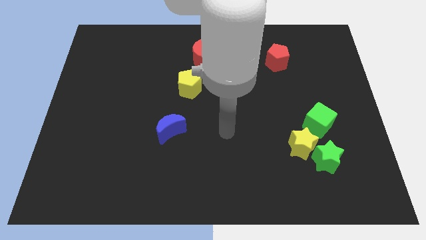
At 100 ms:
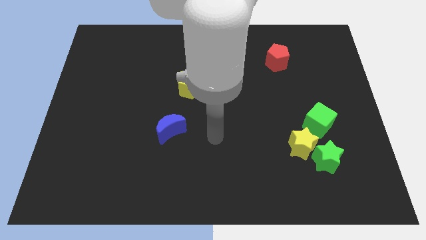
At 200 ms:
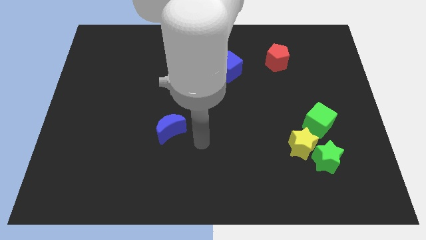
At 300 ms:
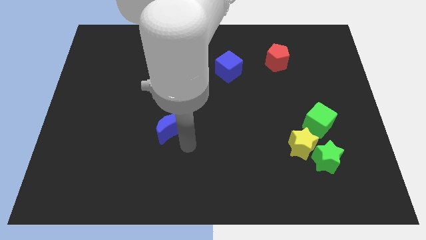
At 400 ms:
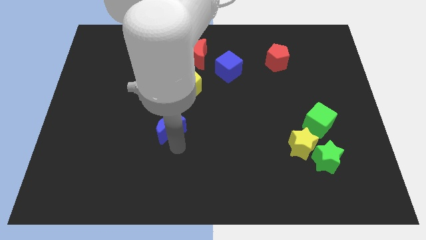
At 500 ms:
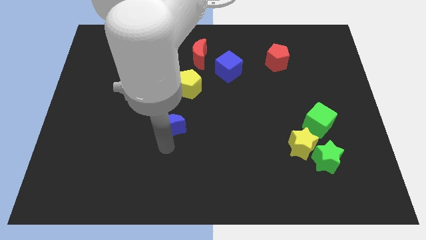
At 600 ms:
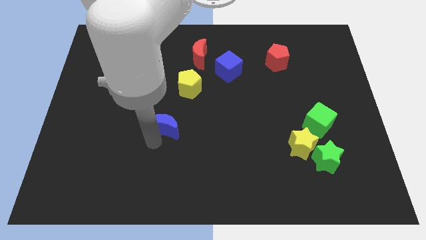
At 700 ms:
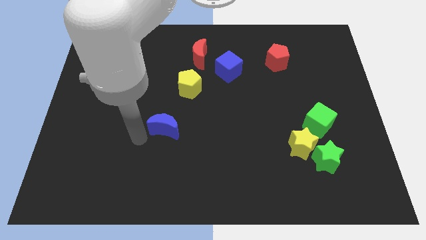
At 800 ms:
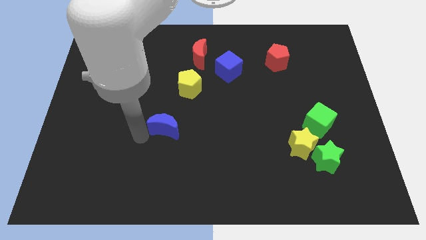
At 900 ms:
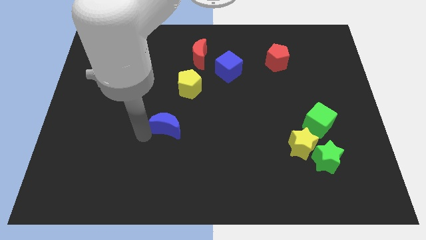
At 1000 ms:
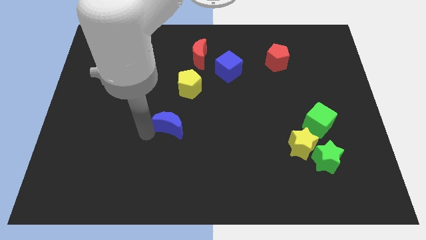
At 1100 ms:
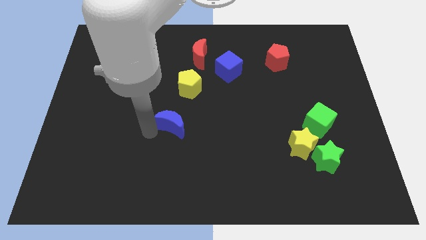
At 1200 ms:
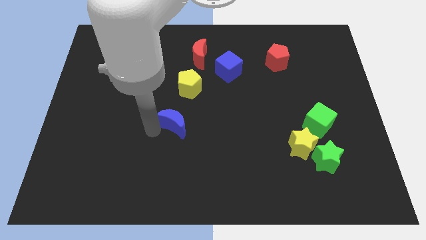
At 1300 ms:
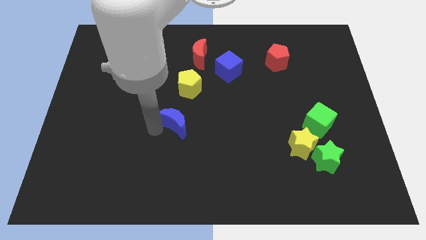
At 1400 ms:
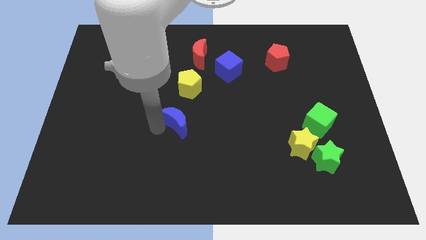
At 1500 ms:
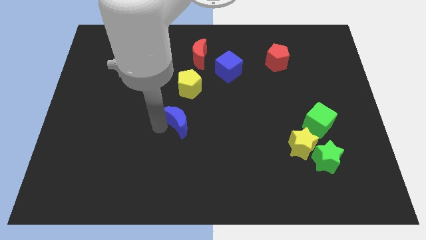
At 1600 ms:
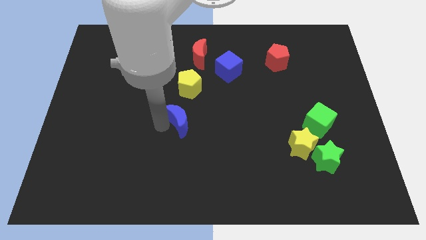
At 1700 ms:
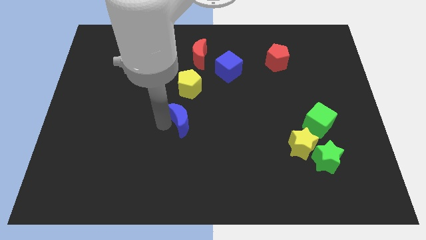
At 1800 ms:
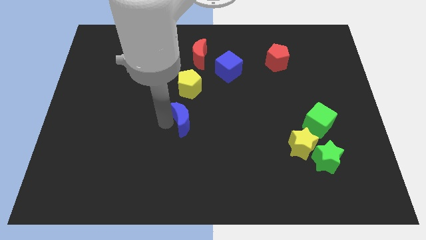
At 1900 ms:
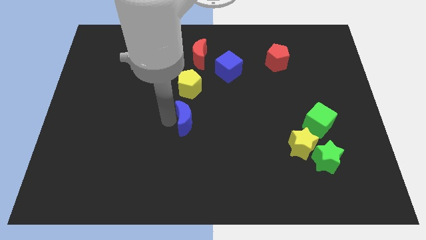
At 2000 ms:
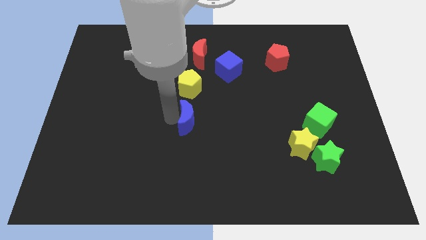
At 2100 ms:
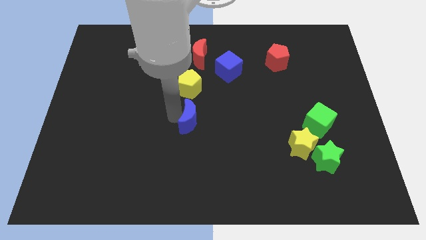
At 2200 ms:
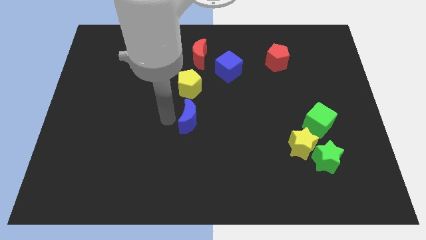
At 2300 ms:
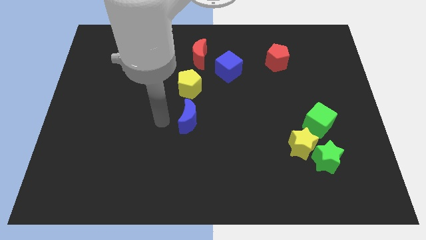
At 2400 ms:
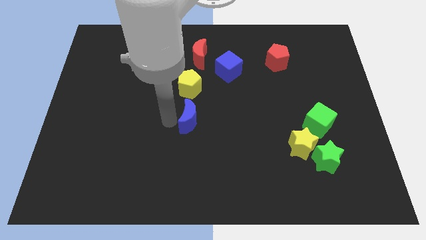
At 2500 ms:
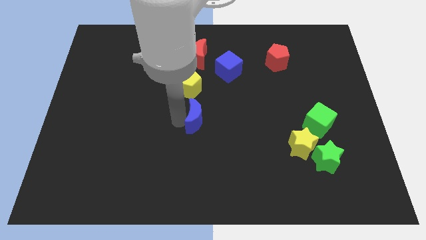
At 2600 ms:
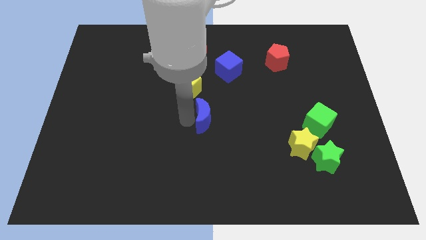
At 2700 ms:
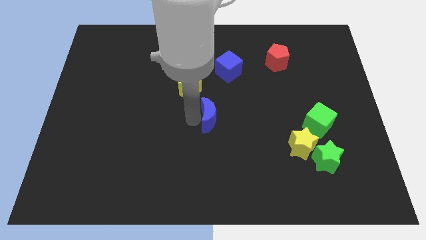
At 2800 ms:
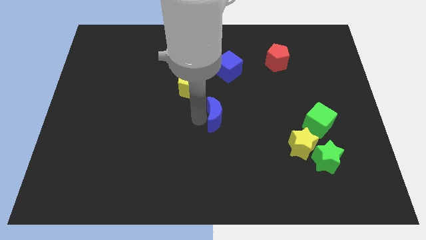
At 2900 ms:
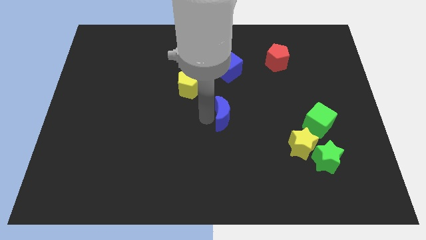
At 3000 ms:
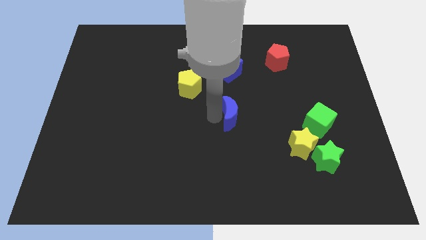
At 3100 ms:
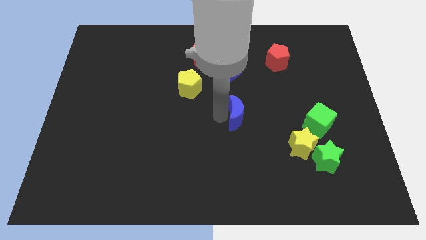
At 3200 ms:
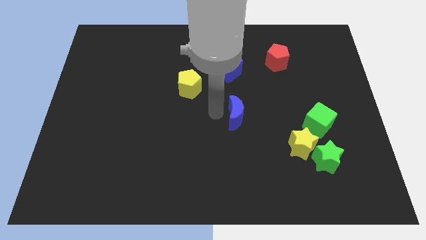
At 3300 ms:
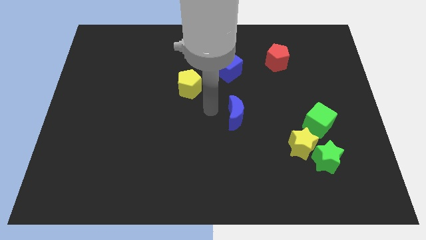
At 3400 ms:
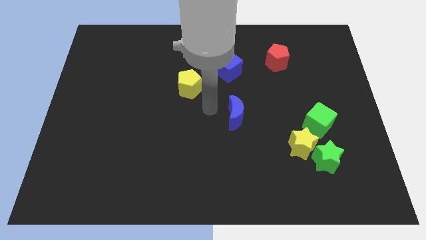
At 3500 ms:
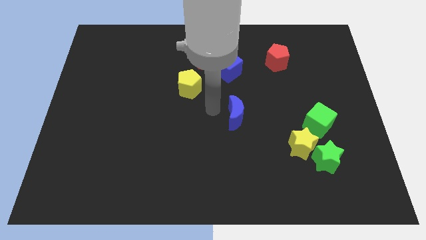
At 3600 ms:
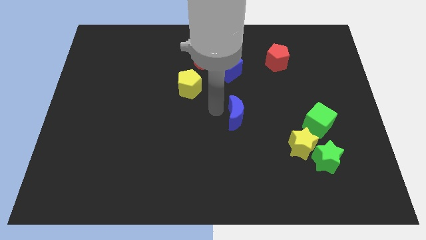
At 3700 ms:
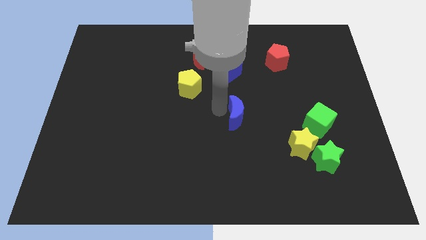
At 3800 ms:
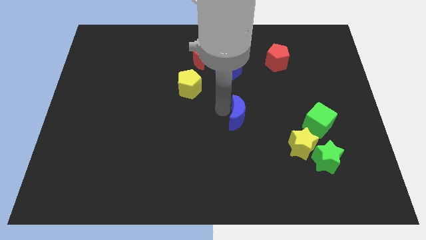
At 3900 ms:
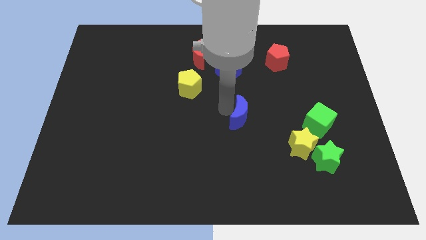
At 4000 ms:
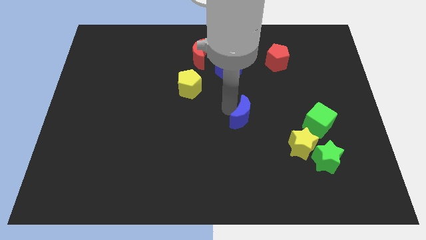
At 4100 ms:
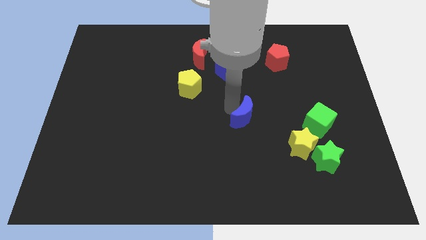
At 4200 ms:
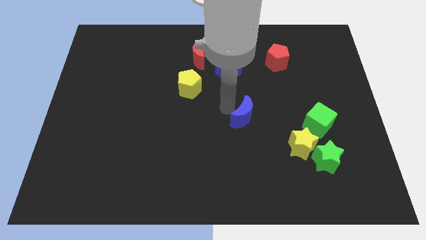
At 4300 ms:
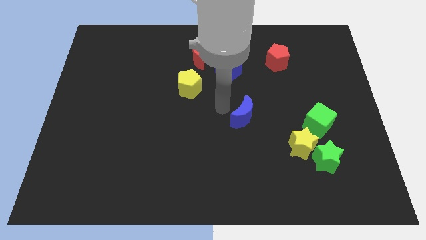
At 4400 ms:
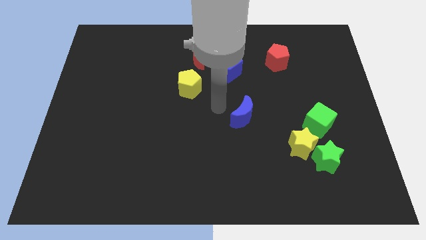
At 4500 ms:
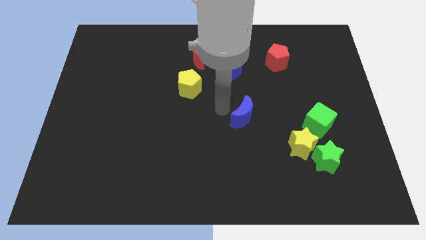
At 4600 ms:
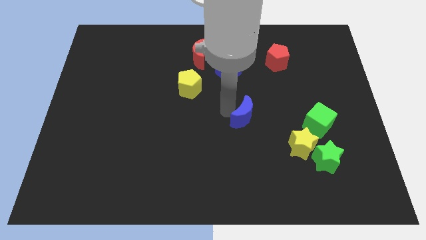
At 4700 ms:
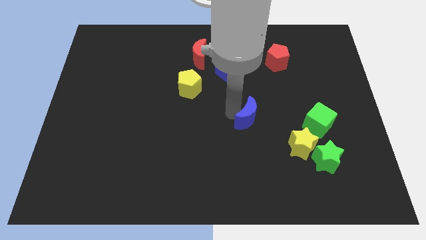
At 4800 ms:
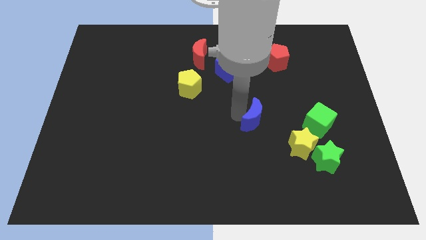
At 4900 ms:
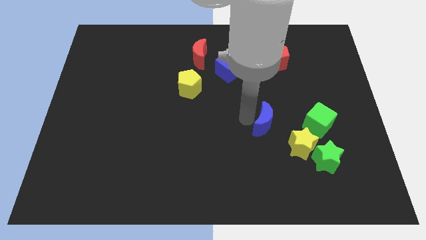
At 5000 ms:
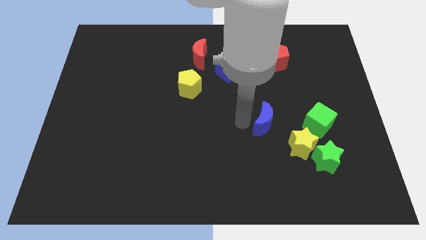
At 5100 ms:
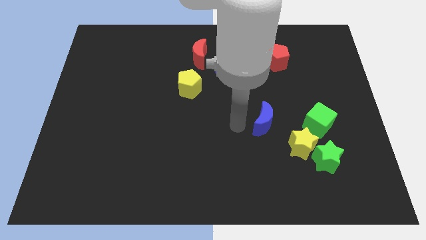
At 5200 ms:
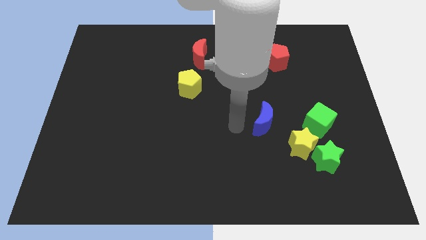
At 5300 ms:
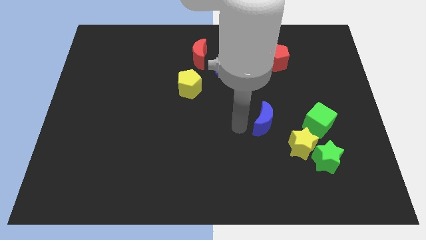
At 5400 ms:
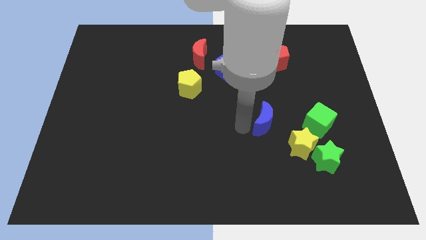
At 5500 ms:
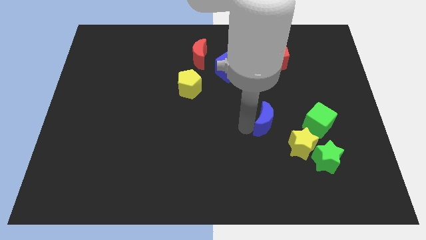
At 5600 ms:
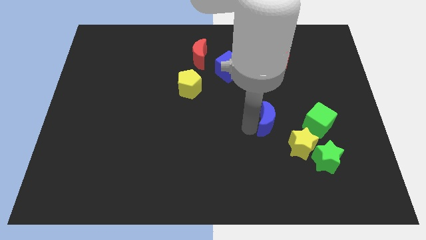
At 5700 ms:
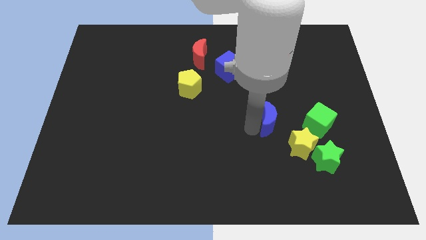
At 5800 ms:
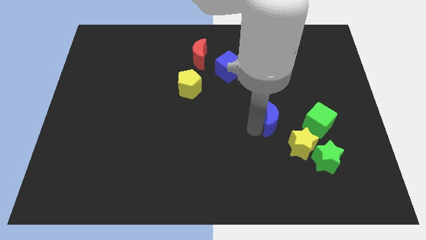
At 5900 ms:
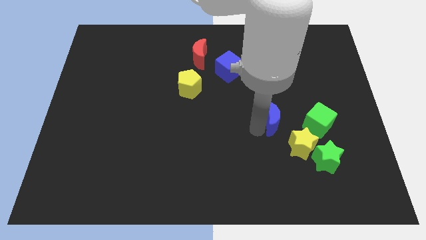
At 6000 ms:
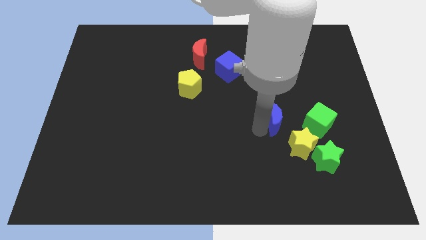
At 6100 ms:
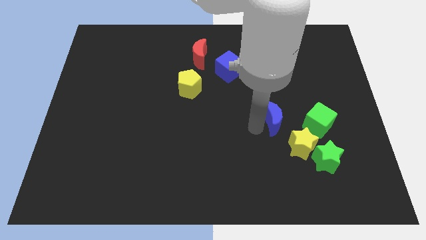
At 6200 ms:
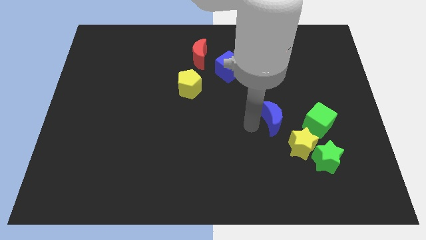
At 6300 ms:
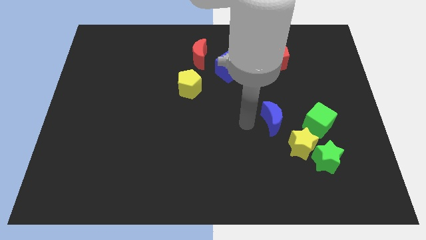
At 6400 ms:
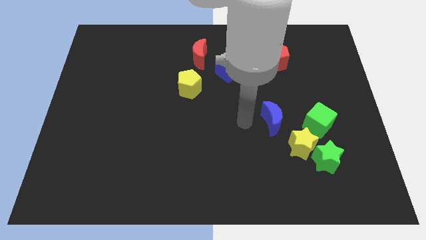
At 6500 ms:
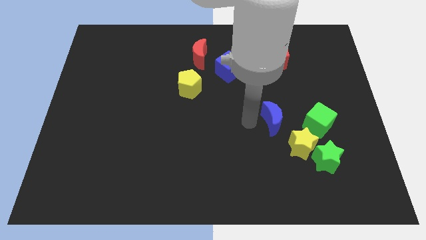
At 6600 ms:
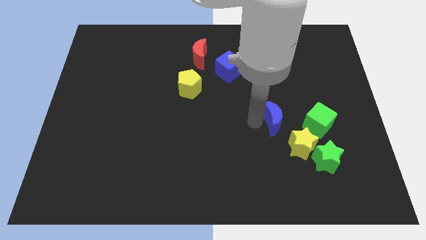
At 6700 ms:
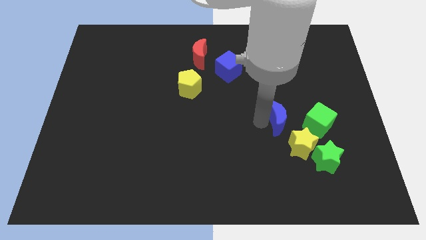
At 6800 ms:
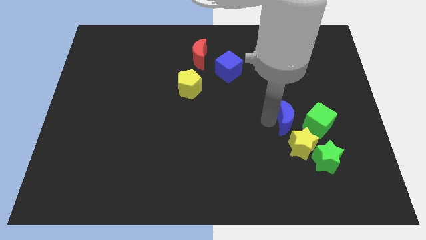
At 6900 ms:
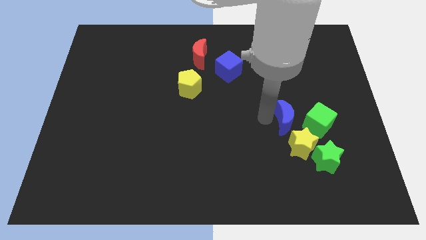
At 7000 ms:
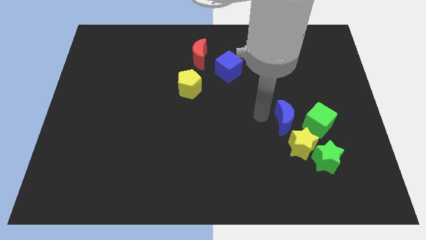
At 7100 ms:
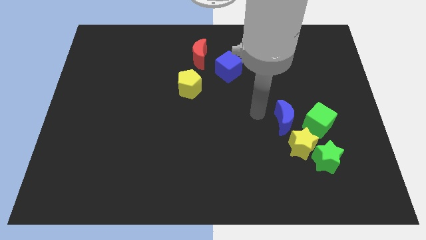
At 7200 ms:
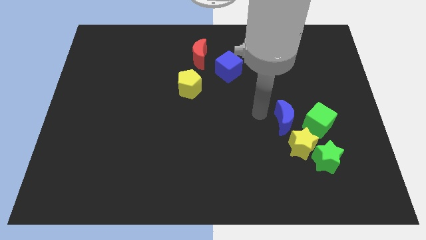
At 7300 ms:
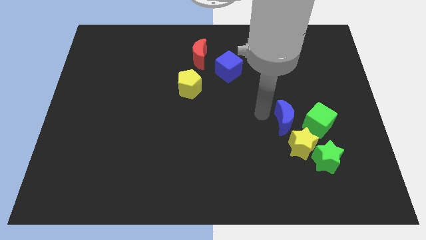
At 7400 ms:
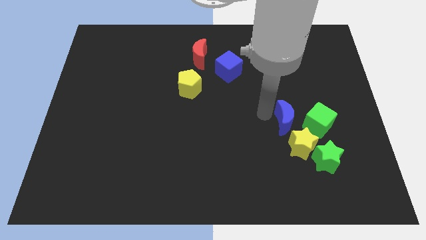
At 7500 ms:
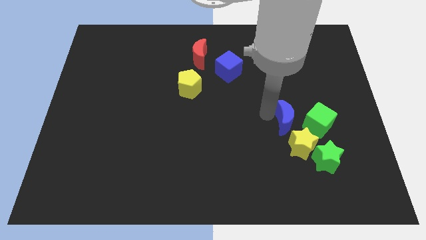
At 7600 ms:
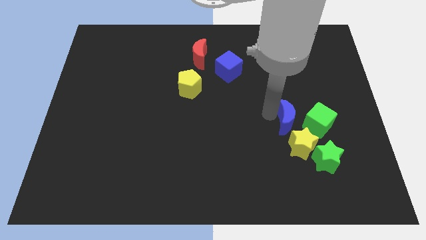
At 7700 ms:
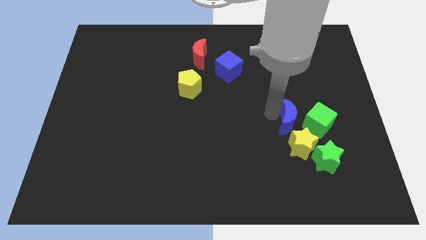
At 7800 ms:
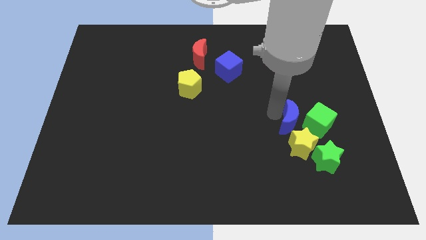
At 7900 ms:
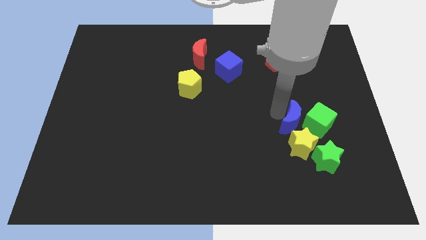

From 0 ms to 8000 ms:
push the blue moon towards the green cube
